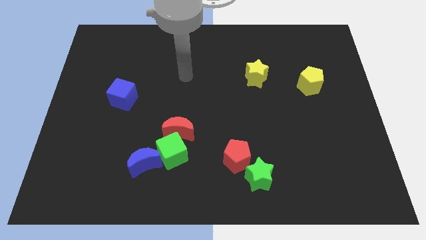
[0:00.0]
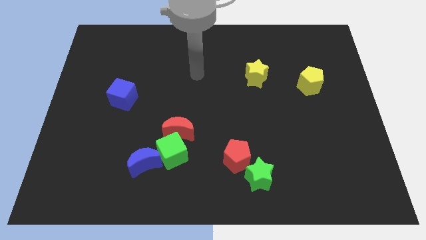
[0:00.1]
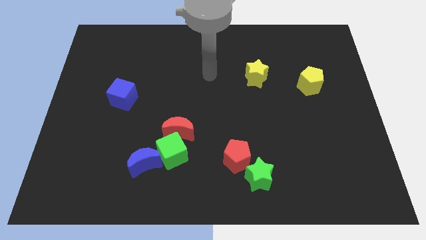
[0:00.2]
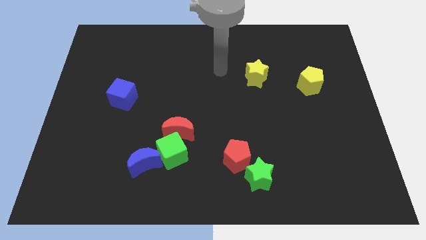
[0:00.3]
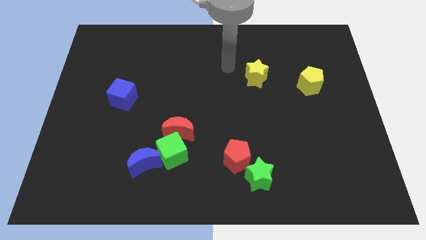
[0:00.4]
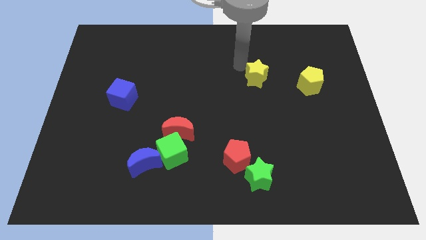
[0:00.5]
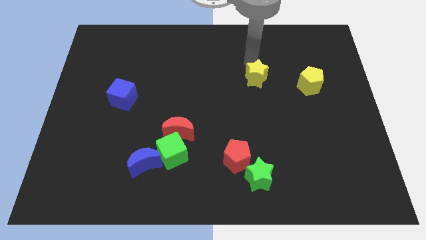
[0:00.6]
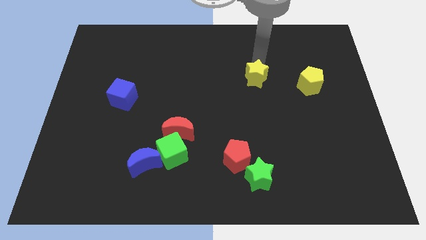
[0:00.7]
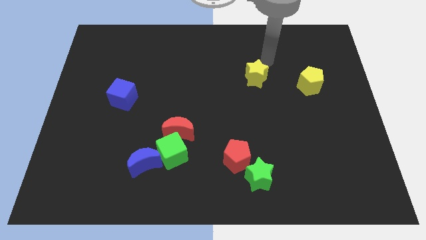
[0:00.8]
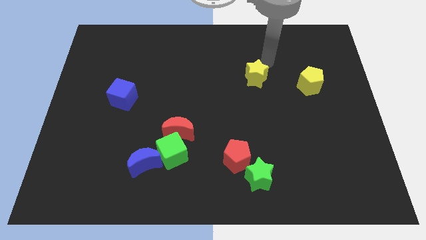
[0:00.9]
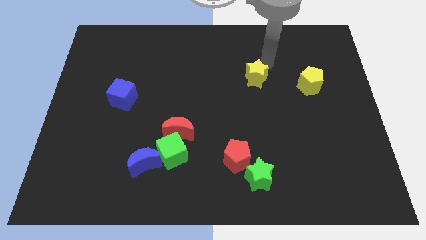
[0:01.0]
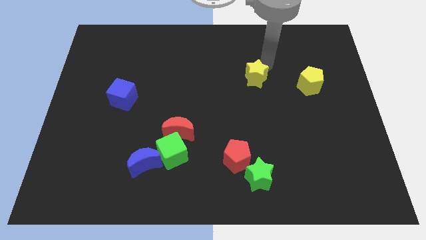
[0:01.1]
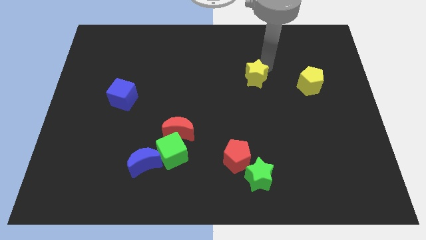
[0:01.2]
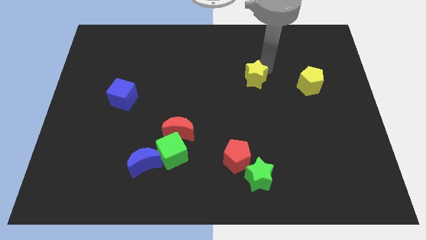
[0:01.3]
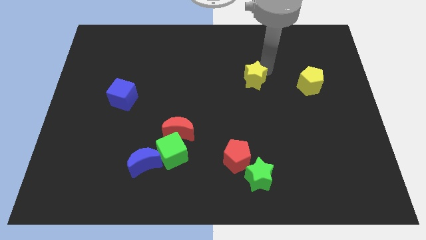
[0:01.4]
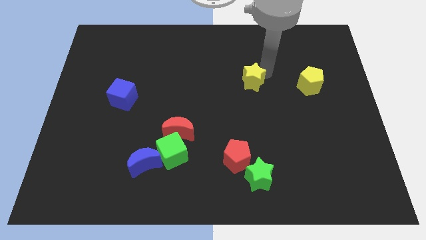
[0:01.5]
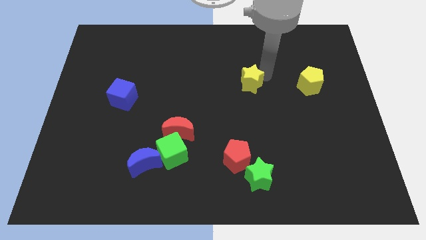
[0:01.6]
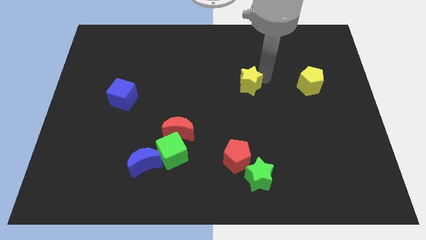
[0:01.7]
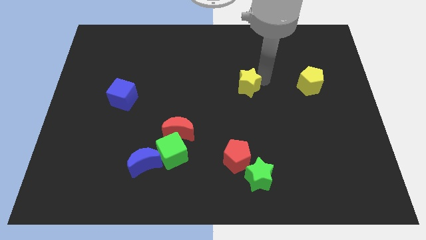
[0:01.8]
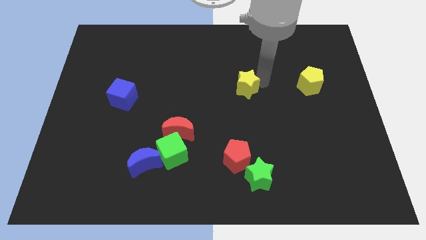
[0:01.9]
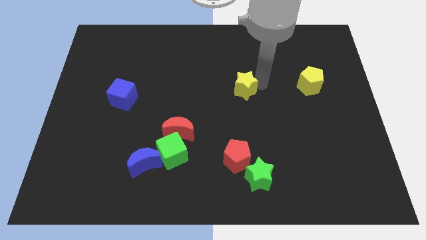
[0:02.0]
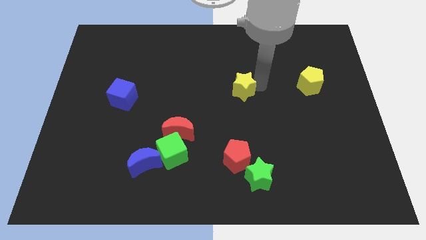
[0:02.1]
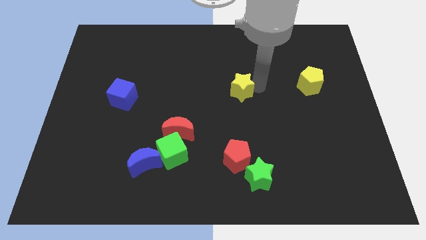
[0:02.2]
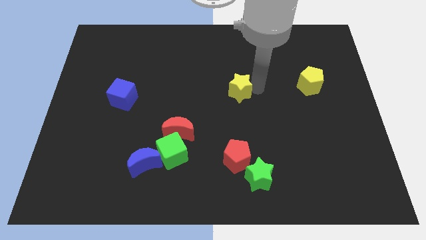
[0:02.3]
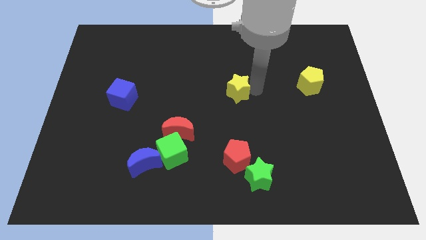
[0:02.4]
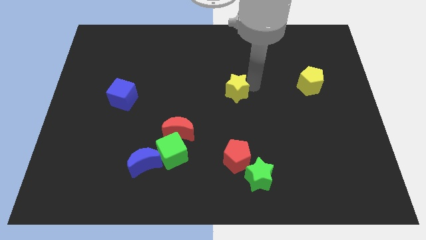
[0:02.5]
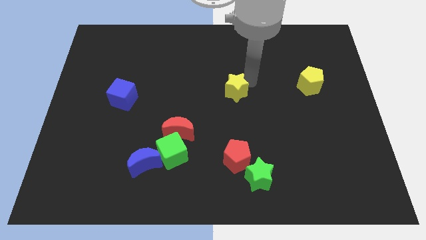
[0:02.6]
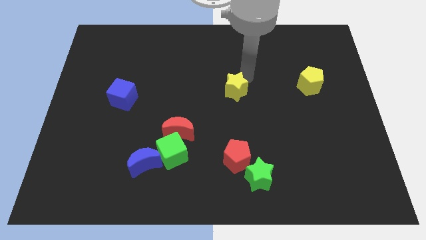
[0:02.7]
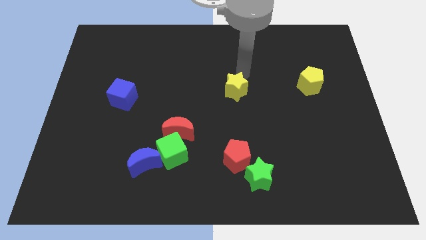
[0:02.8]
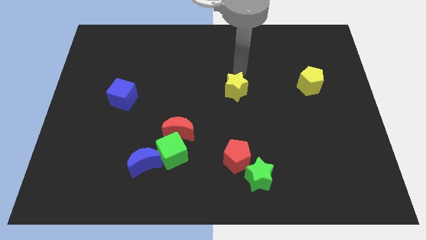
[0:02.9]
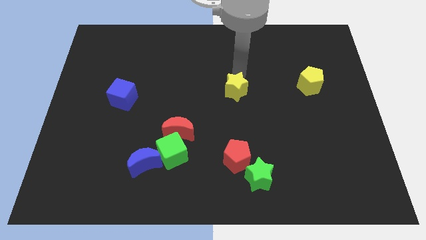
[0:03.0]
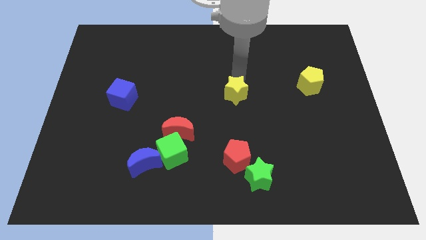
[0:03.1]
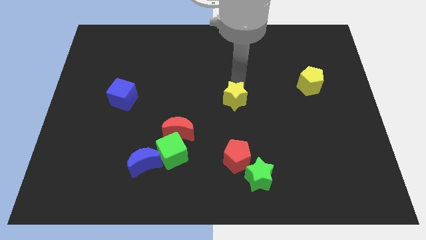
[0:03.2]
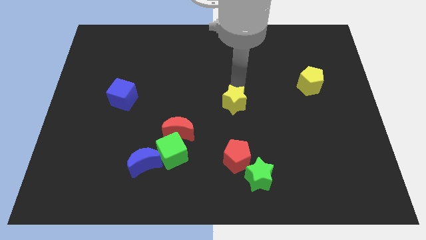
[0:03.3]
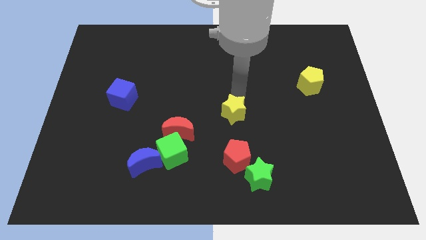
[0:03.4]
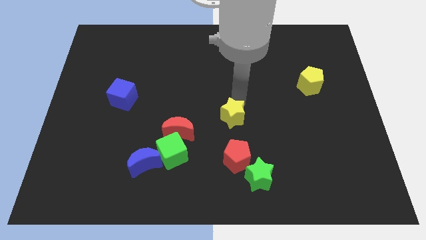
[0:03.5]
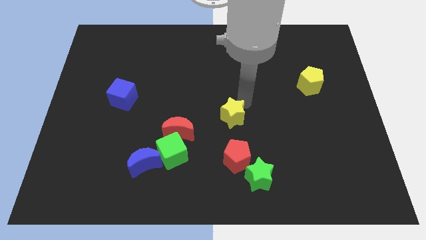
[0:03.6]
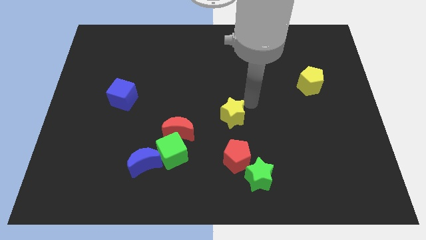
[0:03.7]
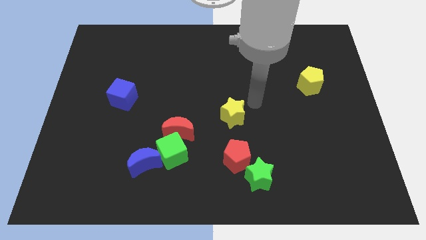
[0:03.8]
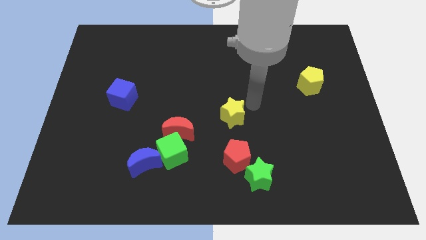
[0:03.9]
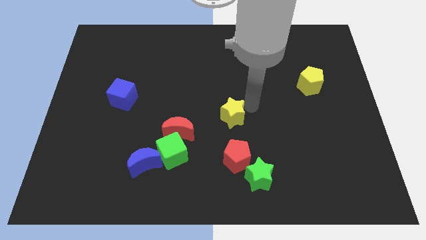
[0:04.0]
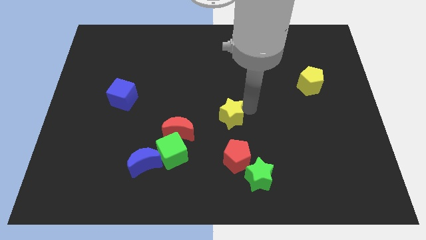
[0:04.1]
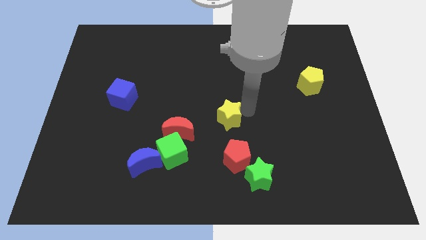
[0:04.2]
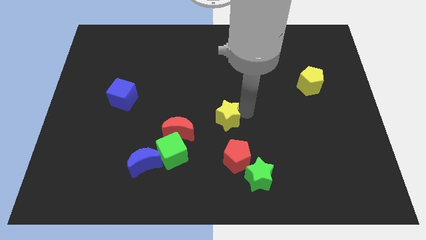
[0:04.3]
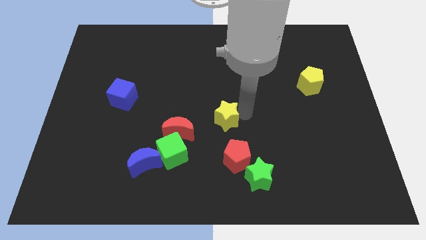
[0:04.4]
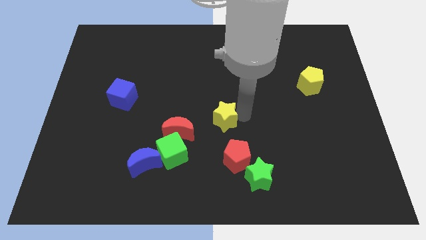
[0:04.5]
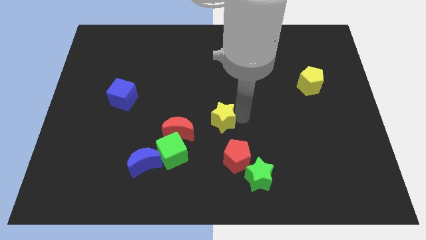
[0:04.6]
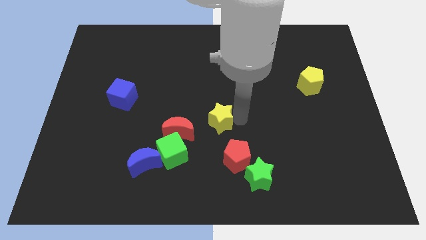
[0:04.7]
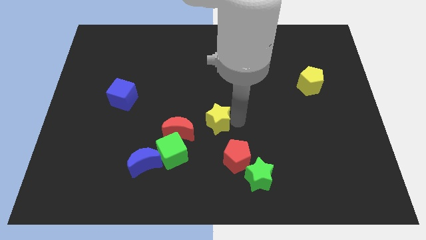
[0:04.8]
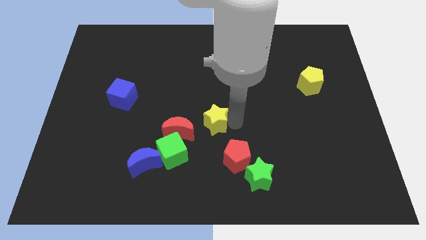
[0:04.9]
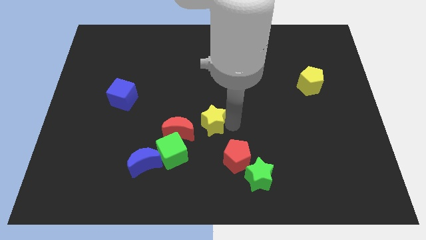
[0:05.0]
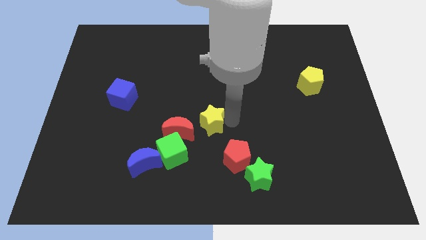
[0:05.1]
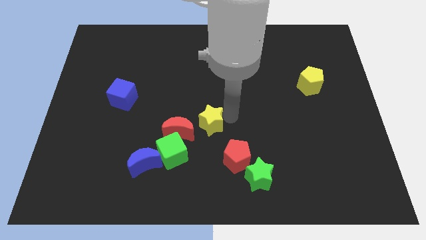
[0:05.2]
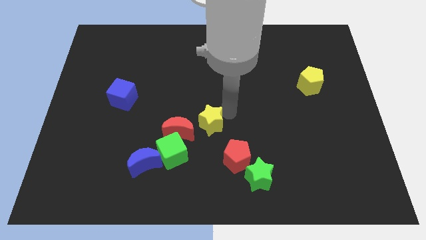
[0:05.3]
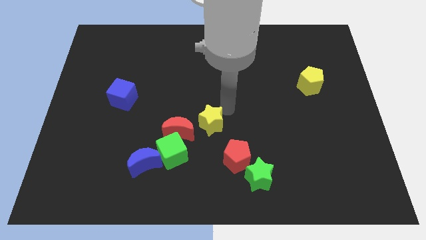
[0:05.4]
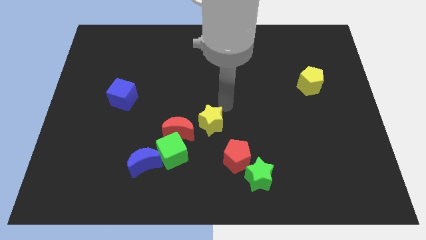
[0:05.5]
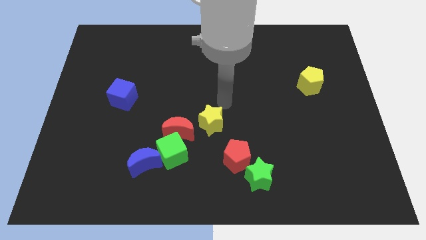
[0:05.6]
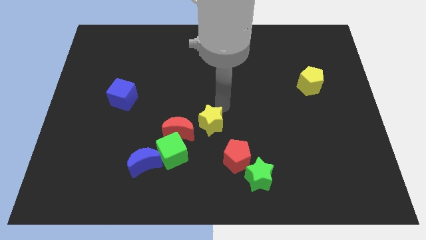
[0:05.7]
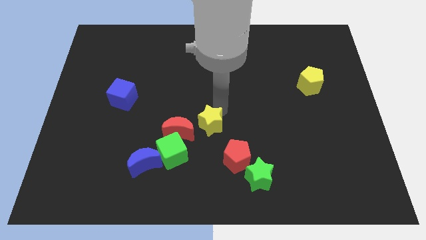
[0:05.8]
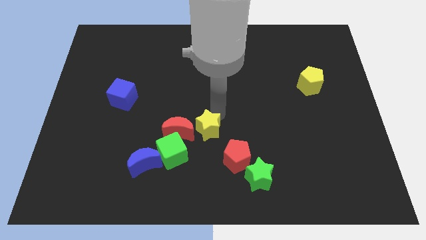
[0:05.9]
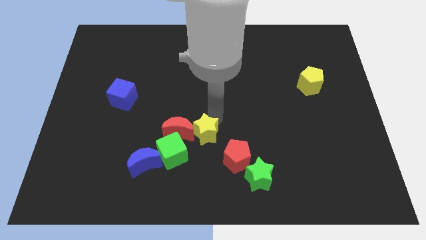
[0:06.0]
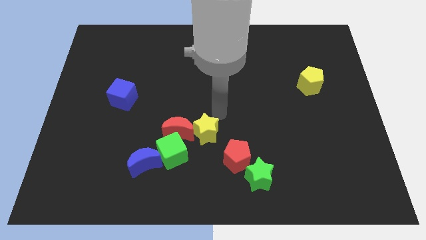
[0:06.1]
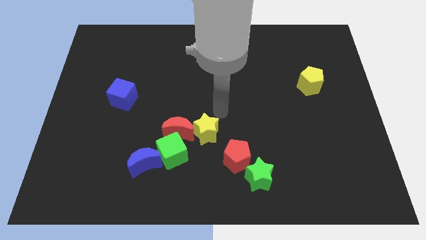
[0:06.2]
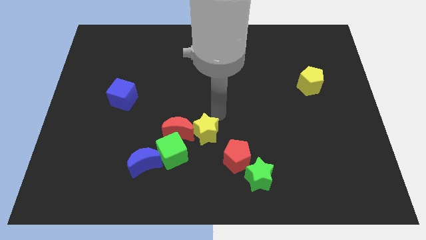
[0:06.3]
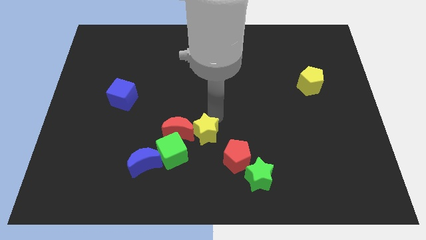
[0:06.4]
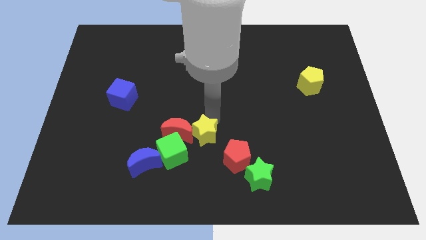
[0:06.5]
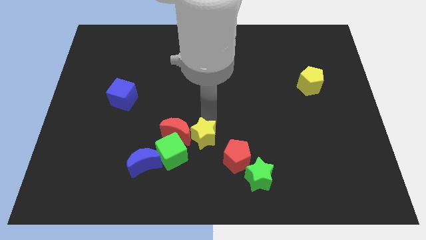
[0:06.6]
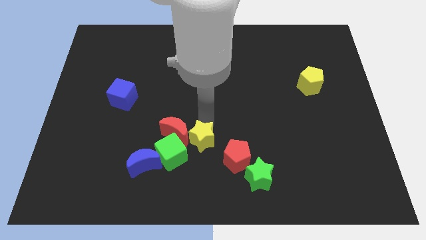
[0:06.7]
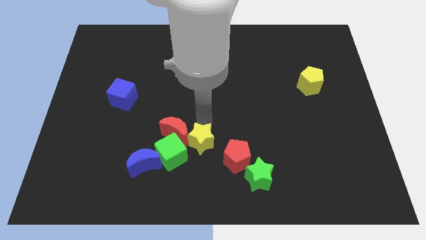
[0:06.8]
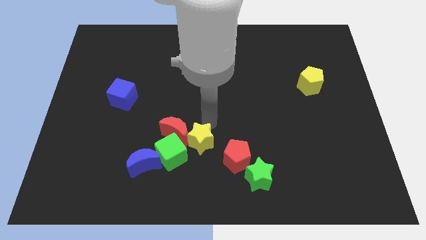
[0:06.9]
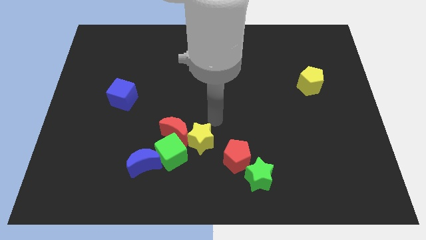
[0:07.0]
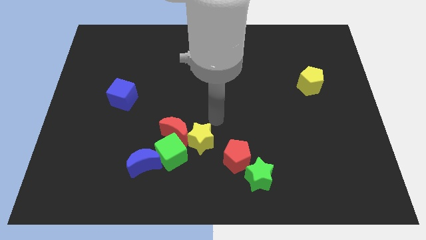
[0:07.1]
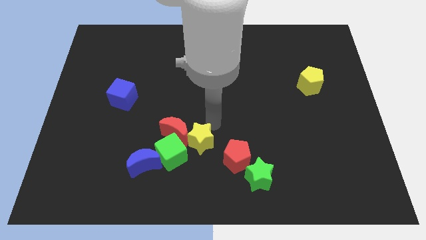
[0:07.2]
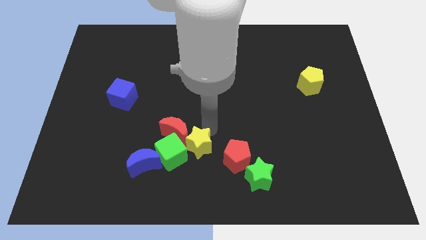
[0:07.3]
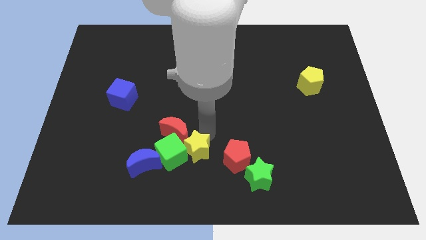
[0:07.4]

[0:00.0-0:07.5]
move the yellow star to the bottom of the red moon
